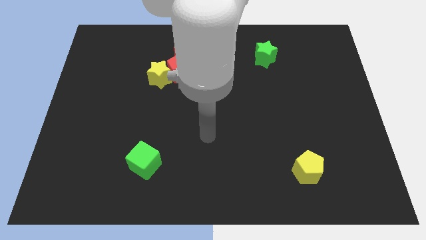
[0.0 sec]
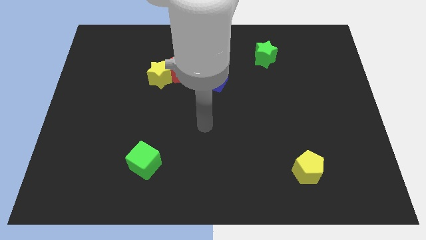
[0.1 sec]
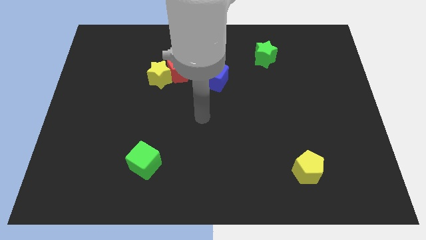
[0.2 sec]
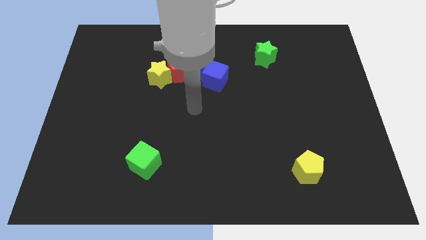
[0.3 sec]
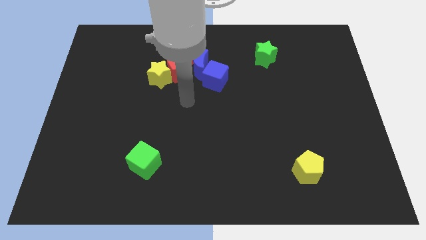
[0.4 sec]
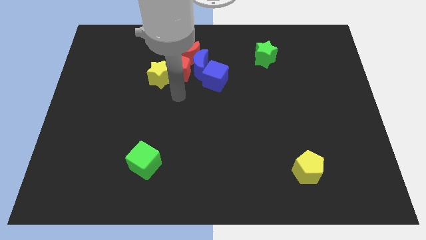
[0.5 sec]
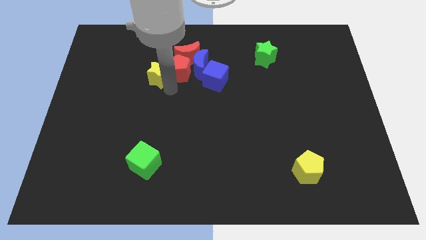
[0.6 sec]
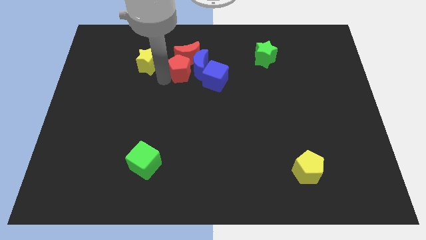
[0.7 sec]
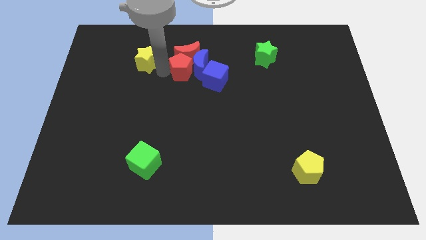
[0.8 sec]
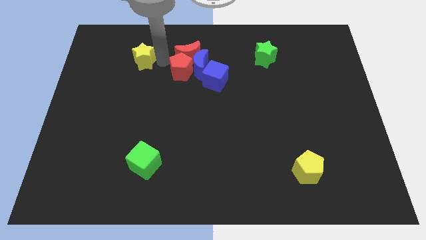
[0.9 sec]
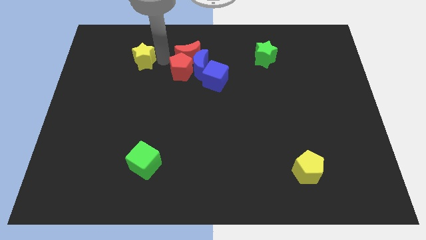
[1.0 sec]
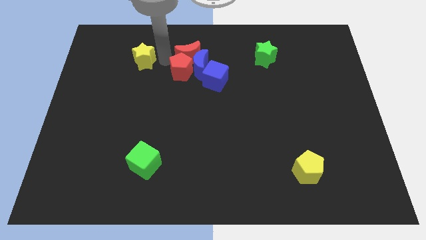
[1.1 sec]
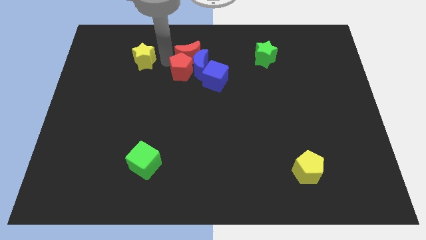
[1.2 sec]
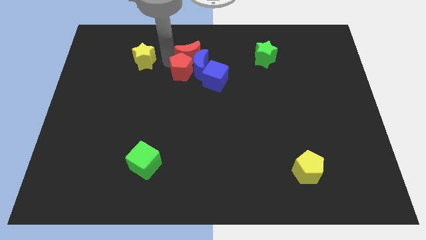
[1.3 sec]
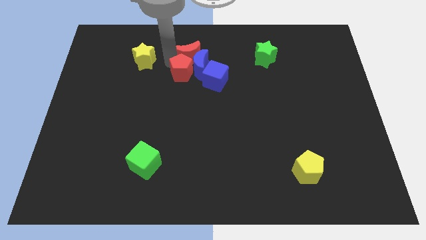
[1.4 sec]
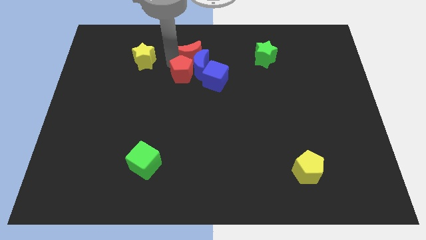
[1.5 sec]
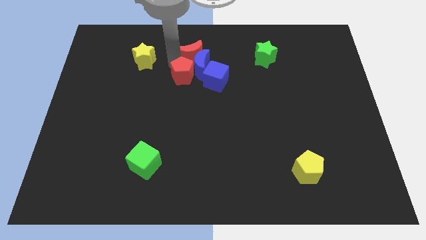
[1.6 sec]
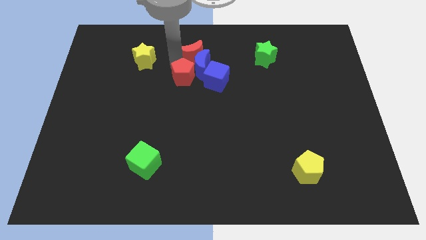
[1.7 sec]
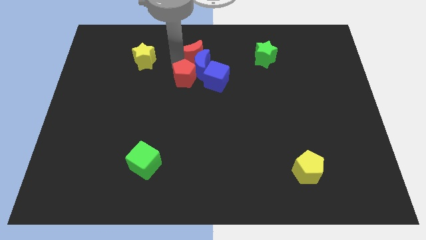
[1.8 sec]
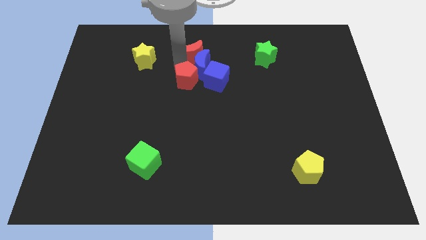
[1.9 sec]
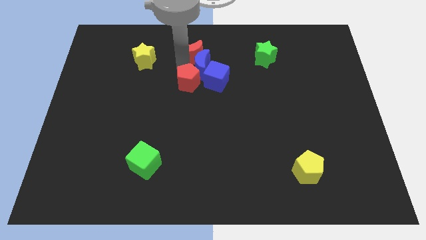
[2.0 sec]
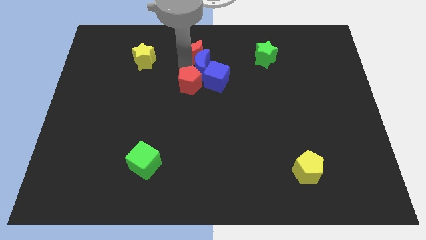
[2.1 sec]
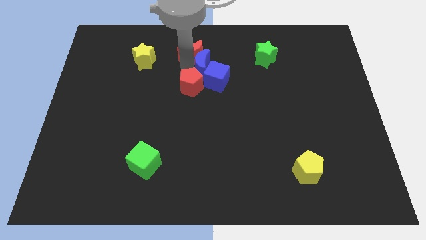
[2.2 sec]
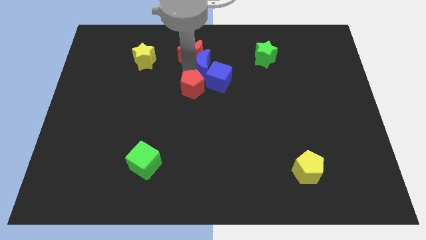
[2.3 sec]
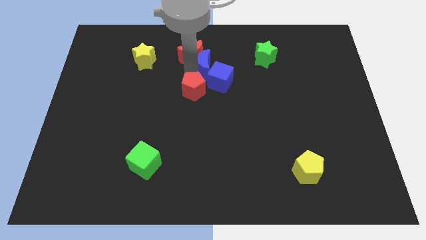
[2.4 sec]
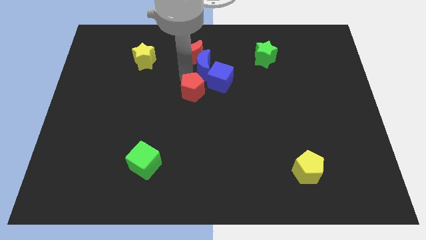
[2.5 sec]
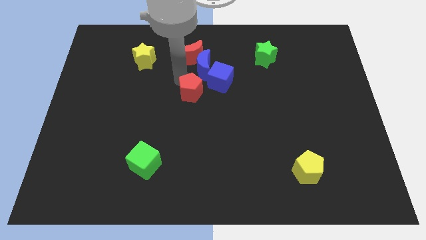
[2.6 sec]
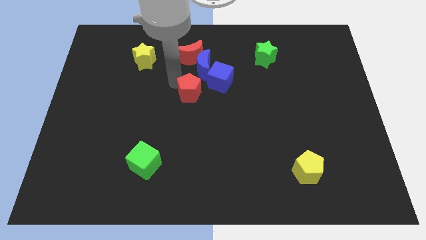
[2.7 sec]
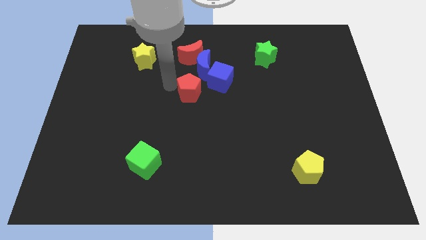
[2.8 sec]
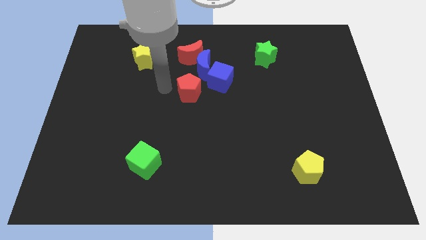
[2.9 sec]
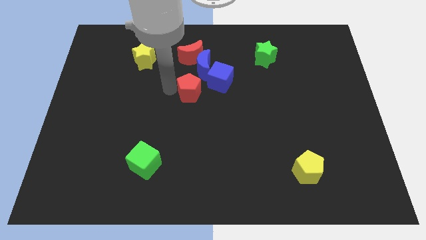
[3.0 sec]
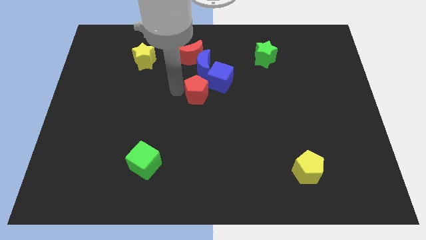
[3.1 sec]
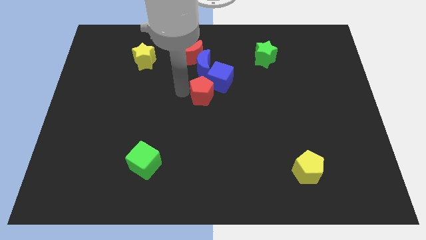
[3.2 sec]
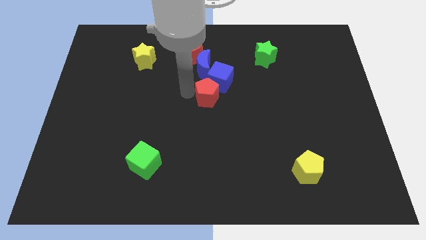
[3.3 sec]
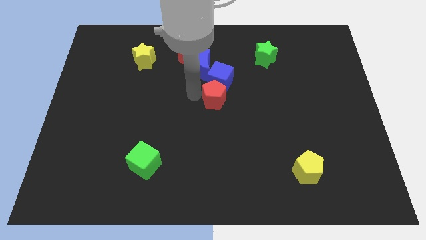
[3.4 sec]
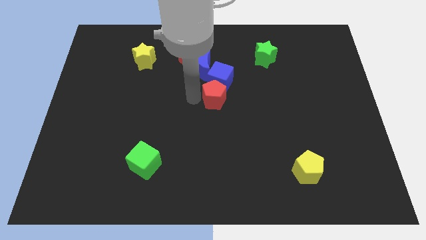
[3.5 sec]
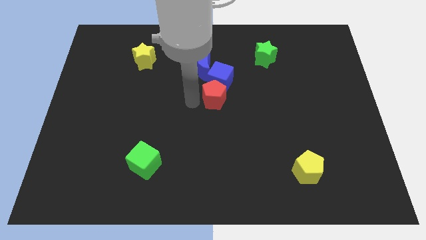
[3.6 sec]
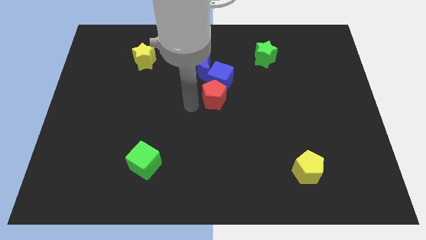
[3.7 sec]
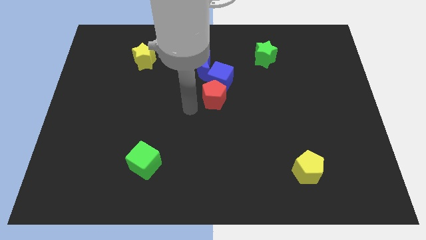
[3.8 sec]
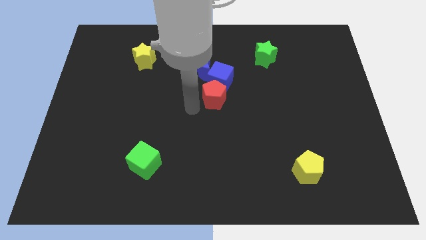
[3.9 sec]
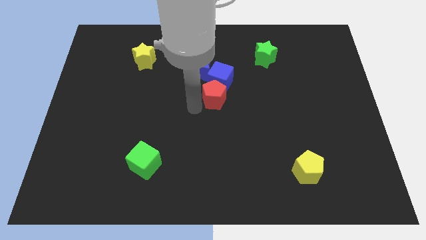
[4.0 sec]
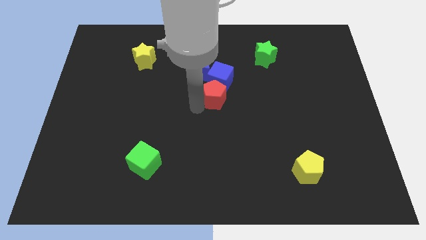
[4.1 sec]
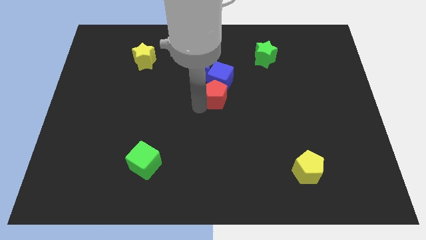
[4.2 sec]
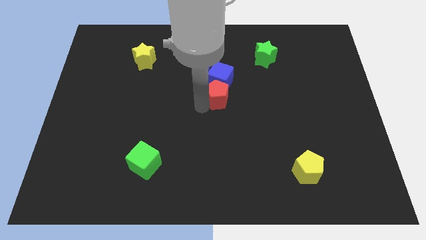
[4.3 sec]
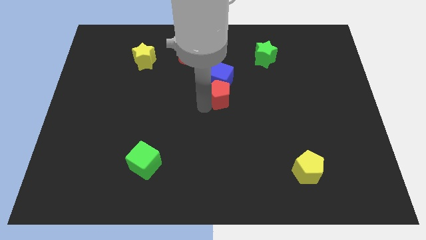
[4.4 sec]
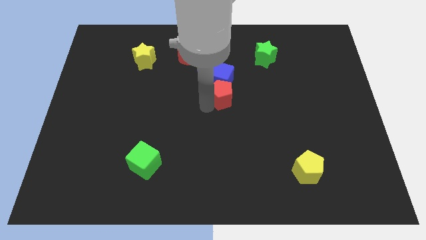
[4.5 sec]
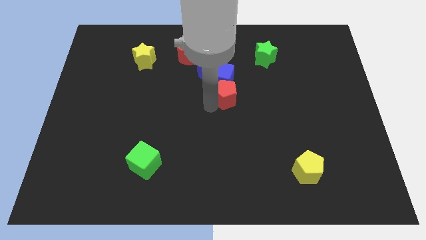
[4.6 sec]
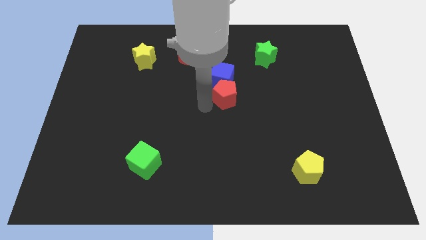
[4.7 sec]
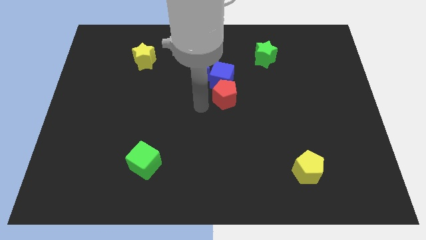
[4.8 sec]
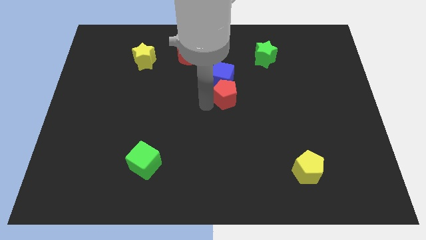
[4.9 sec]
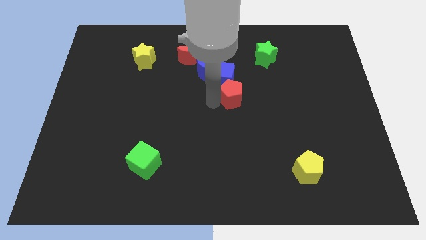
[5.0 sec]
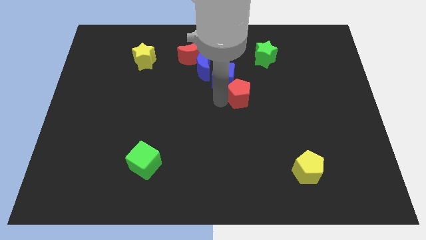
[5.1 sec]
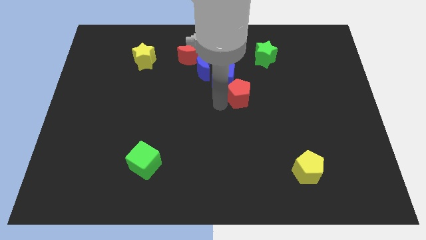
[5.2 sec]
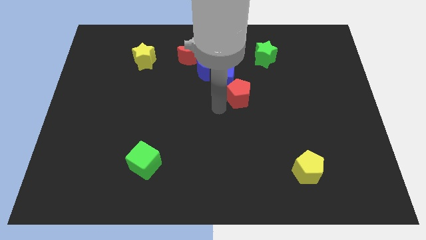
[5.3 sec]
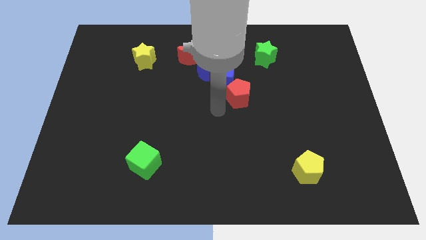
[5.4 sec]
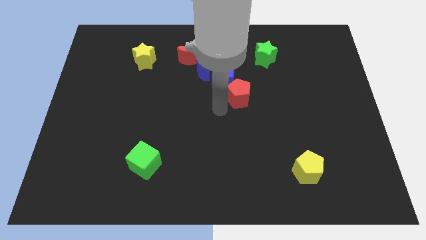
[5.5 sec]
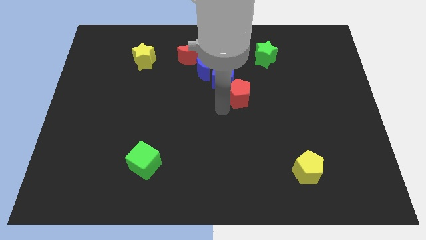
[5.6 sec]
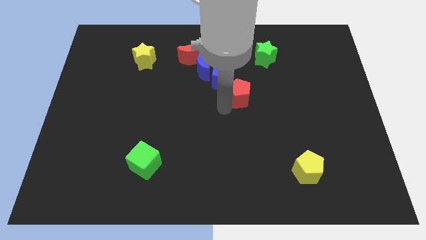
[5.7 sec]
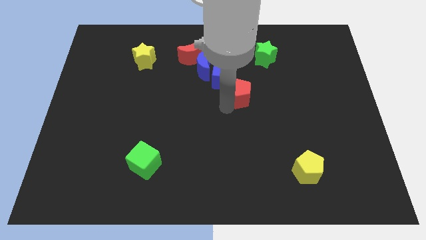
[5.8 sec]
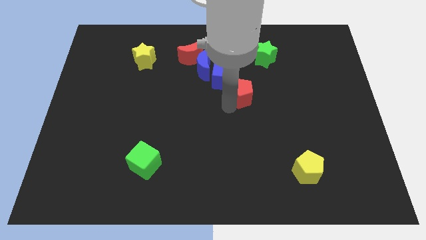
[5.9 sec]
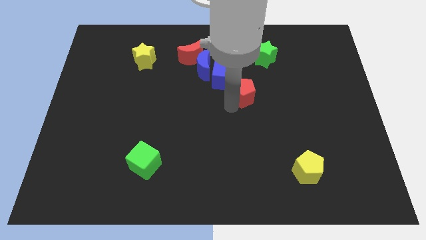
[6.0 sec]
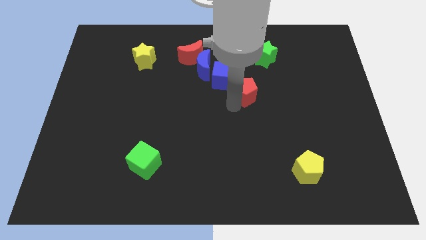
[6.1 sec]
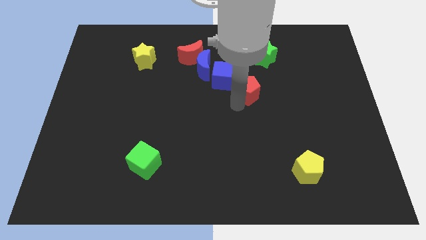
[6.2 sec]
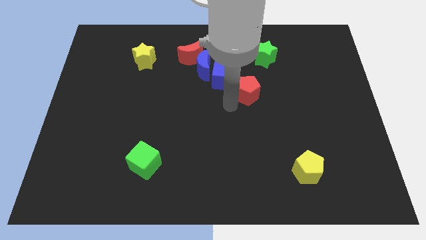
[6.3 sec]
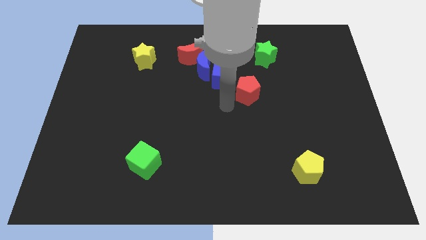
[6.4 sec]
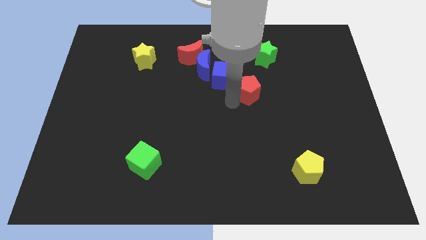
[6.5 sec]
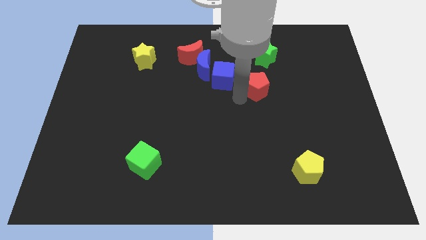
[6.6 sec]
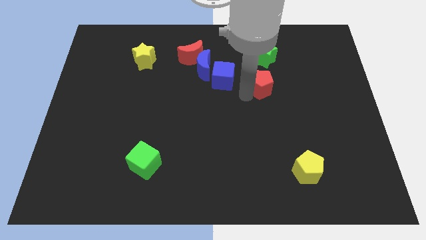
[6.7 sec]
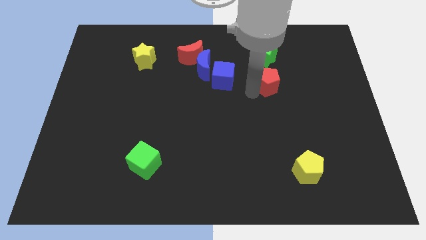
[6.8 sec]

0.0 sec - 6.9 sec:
move the red pentagon right

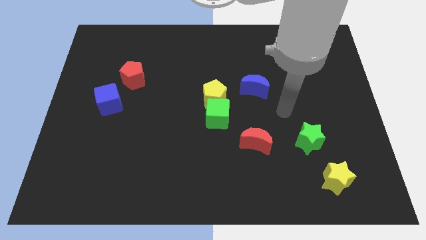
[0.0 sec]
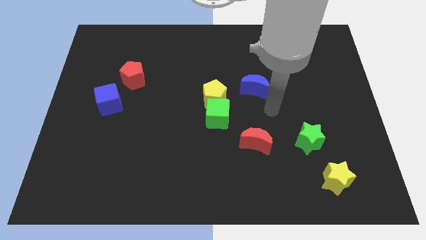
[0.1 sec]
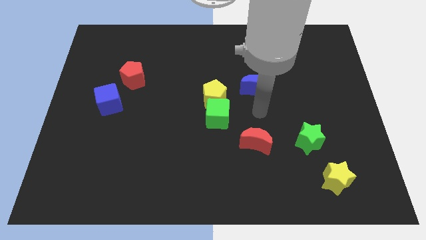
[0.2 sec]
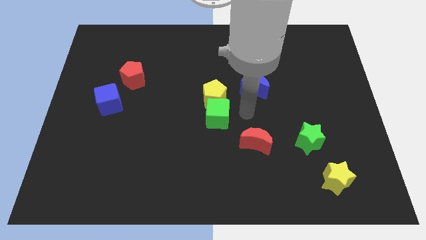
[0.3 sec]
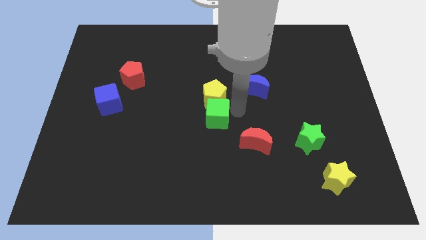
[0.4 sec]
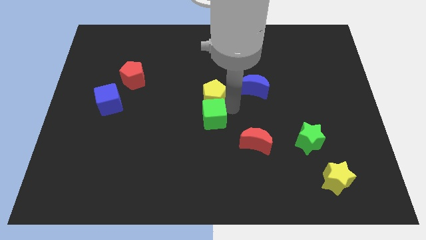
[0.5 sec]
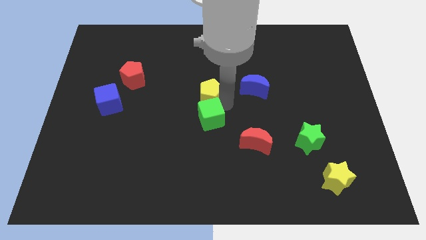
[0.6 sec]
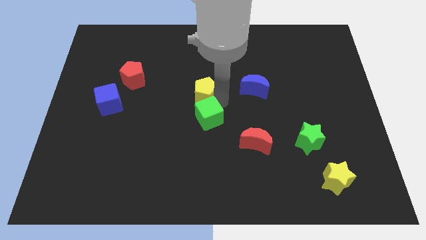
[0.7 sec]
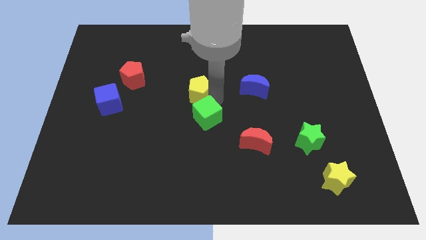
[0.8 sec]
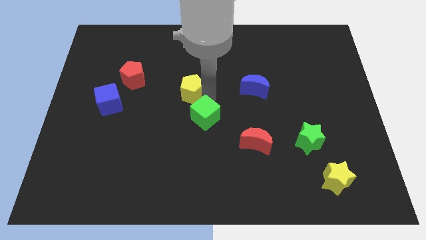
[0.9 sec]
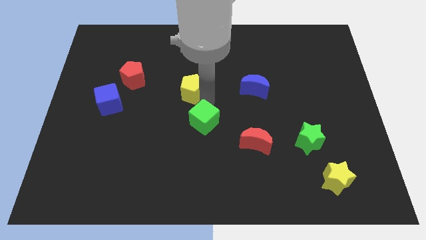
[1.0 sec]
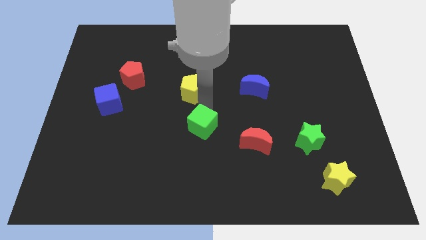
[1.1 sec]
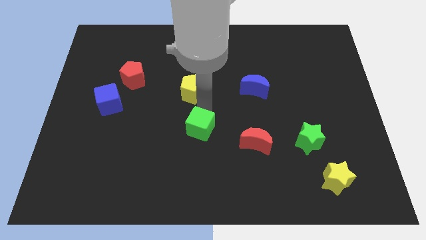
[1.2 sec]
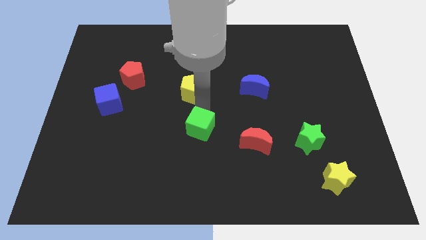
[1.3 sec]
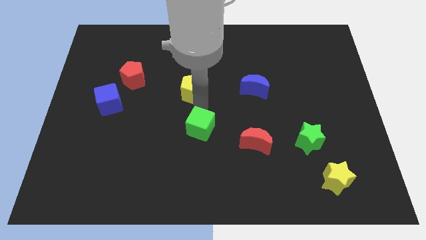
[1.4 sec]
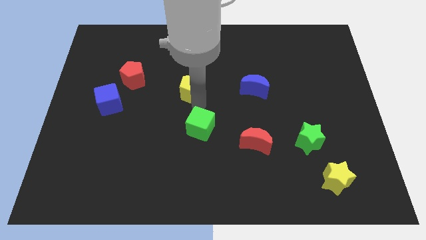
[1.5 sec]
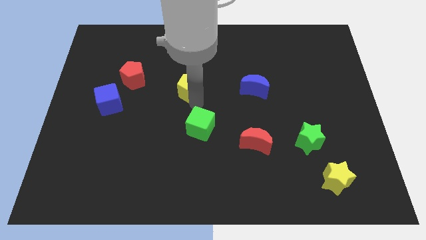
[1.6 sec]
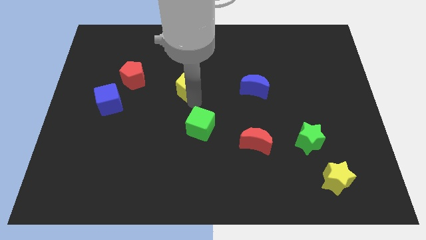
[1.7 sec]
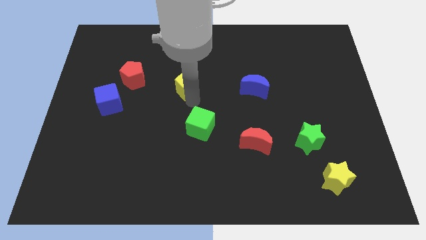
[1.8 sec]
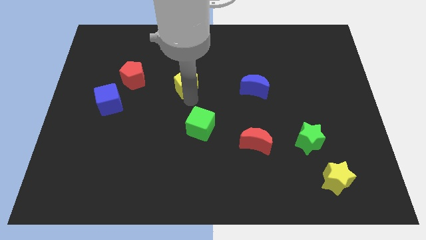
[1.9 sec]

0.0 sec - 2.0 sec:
push the yellow pentagon a little up and left
